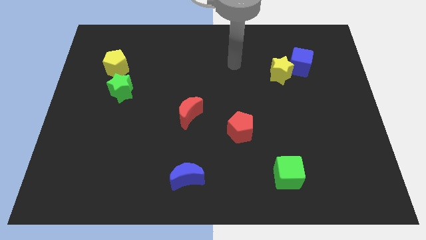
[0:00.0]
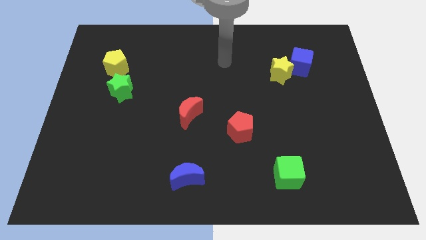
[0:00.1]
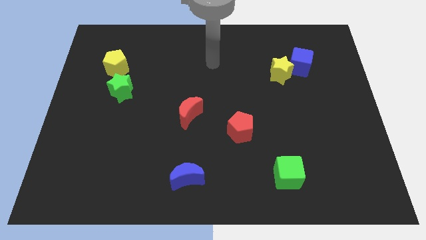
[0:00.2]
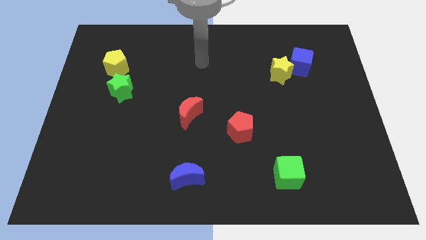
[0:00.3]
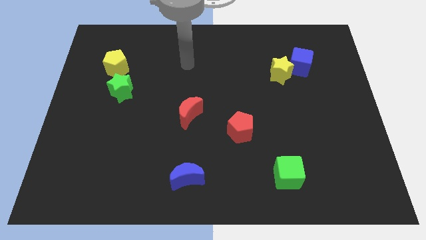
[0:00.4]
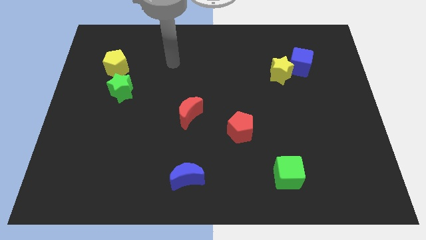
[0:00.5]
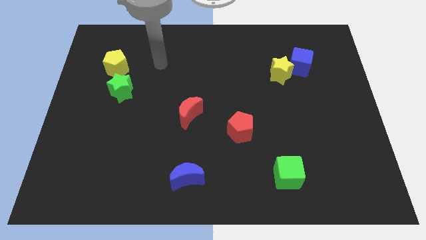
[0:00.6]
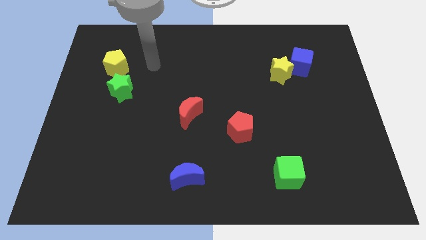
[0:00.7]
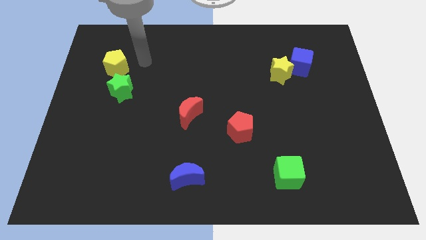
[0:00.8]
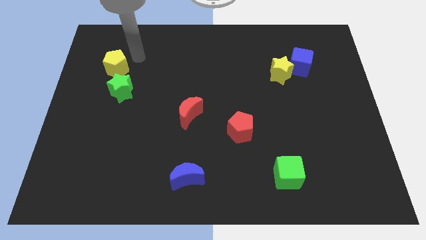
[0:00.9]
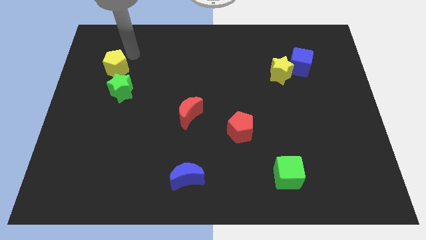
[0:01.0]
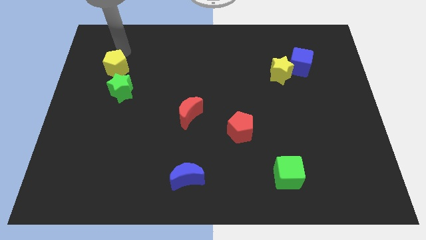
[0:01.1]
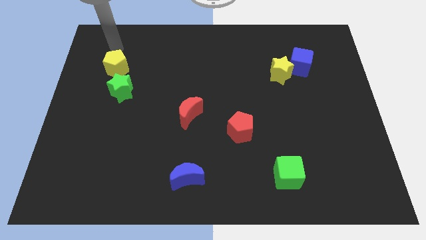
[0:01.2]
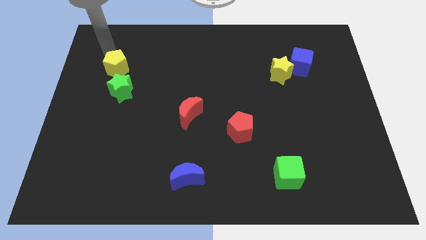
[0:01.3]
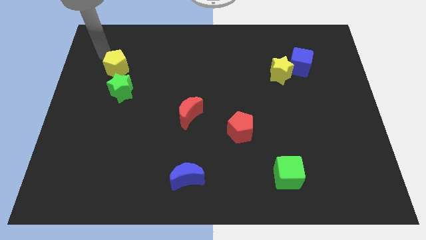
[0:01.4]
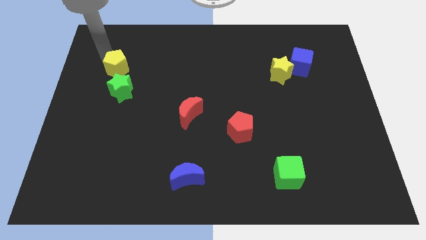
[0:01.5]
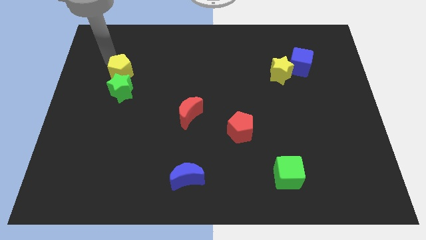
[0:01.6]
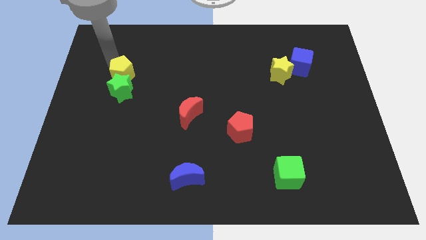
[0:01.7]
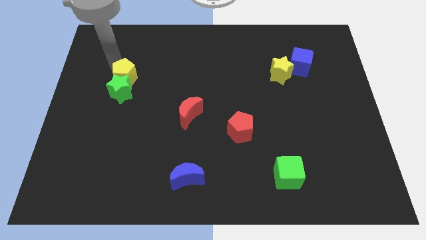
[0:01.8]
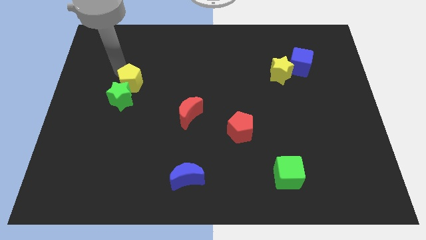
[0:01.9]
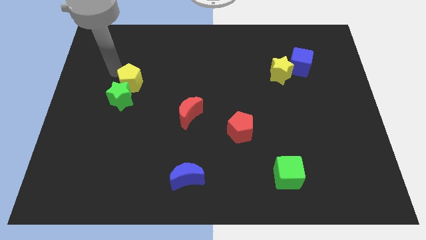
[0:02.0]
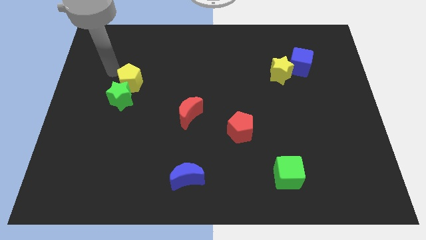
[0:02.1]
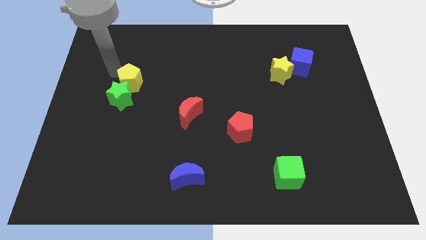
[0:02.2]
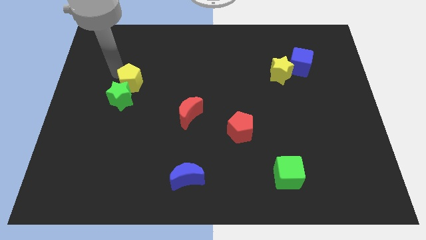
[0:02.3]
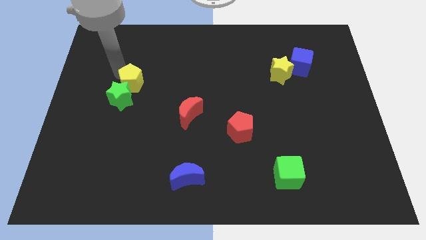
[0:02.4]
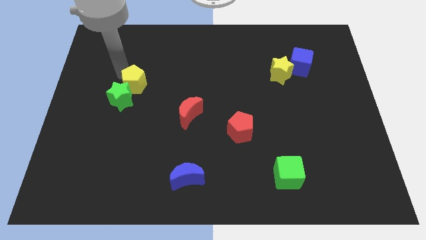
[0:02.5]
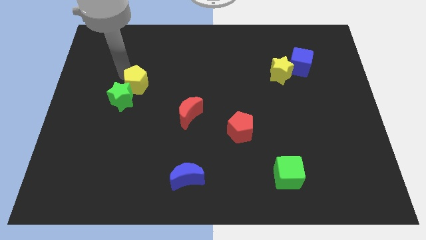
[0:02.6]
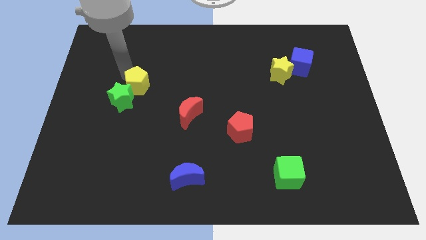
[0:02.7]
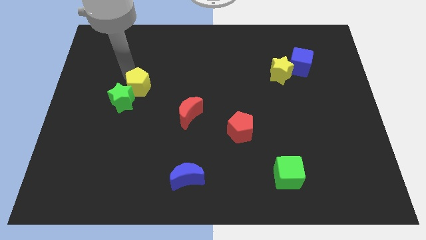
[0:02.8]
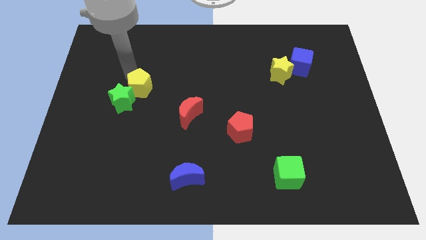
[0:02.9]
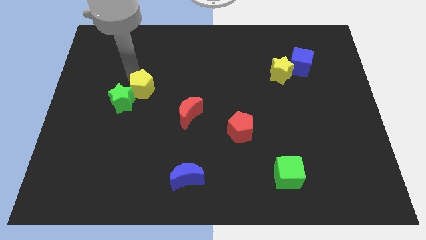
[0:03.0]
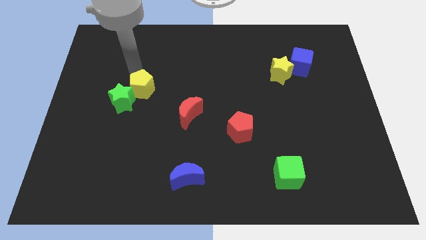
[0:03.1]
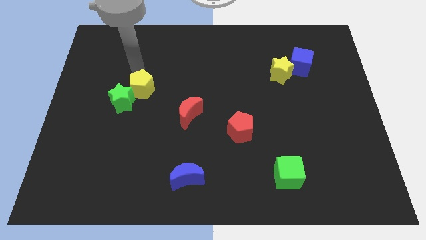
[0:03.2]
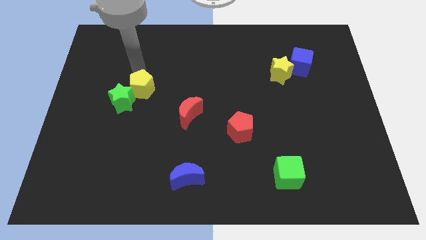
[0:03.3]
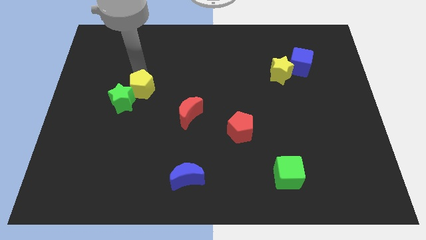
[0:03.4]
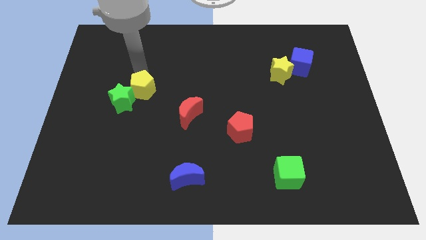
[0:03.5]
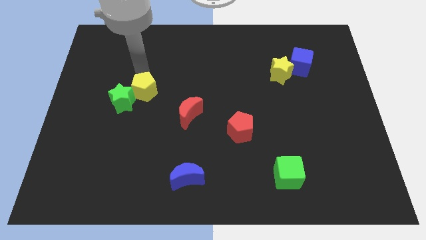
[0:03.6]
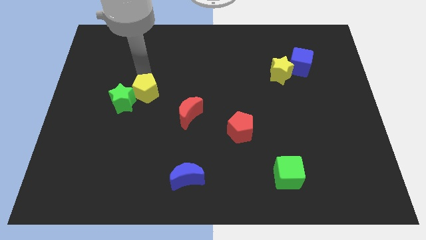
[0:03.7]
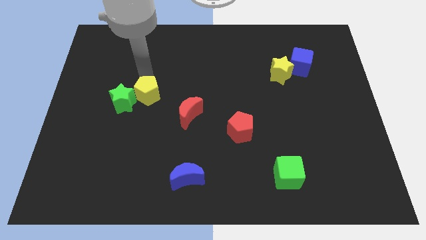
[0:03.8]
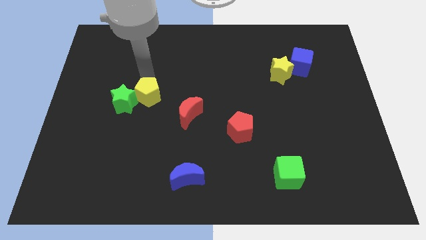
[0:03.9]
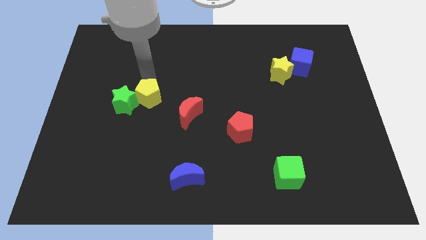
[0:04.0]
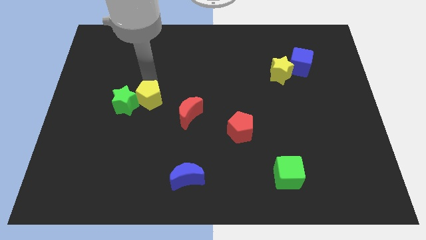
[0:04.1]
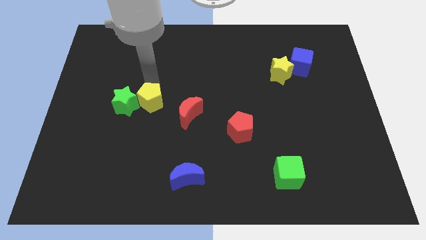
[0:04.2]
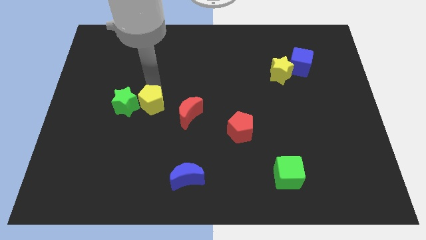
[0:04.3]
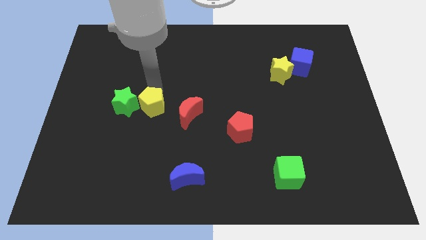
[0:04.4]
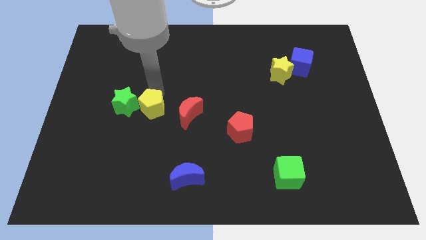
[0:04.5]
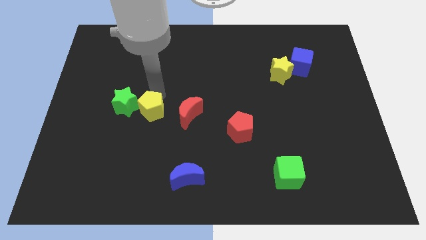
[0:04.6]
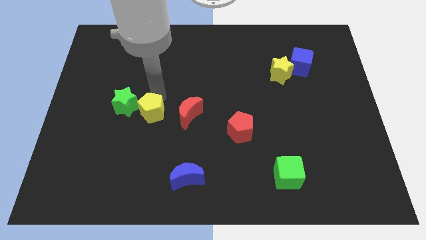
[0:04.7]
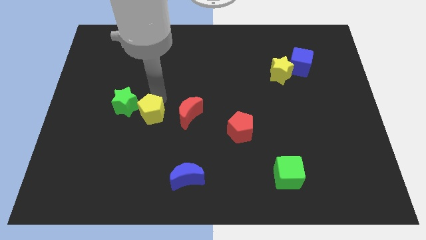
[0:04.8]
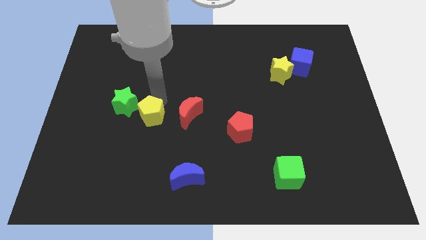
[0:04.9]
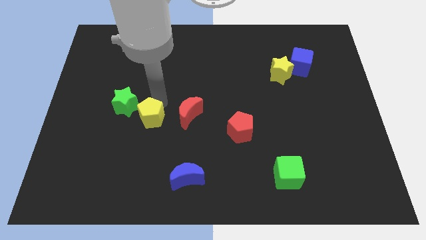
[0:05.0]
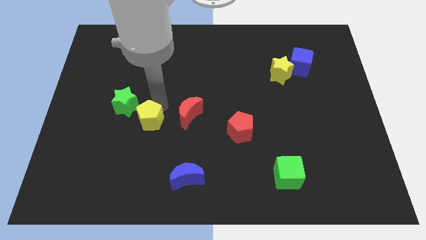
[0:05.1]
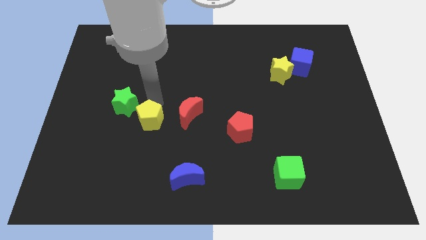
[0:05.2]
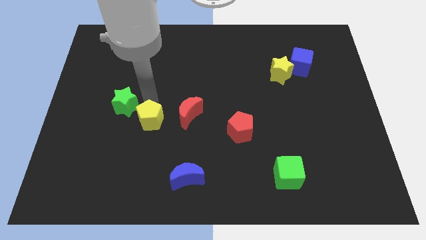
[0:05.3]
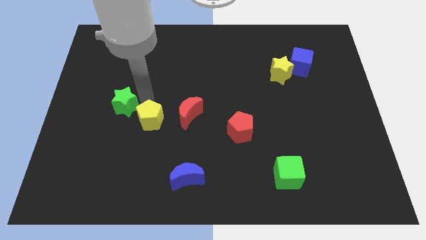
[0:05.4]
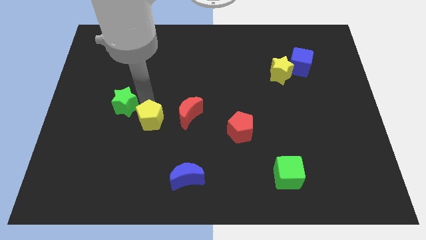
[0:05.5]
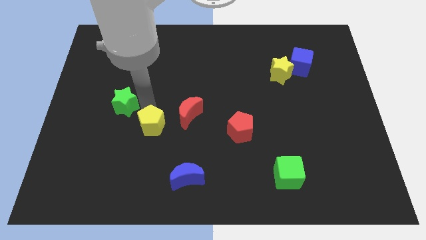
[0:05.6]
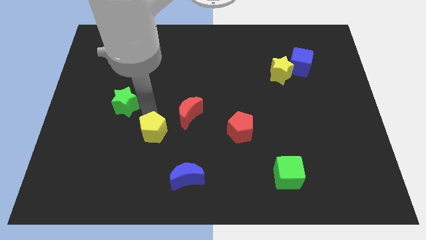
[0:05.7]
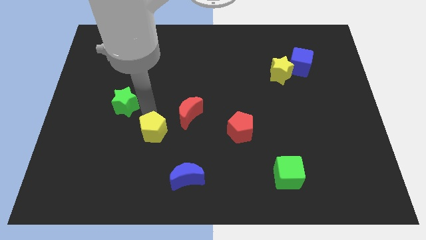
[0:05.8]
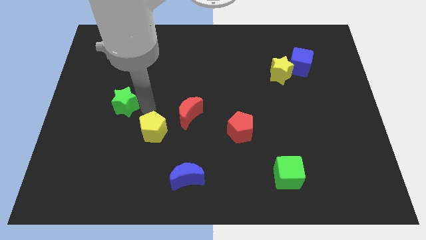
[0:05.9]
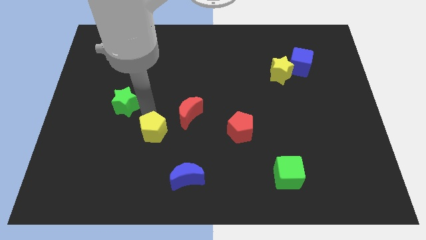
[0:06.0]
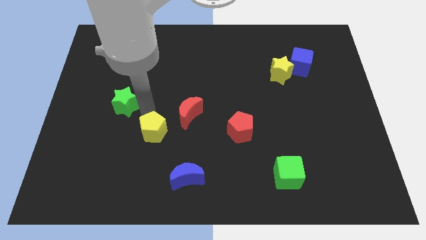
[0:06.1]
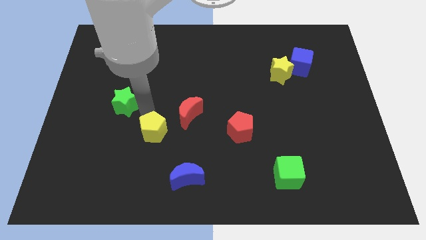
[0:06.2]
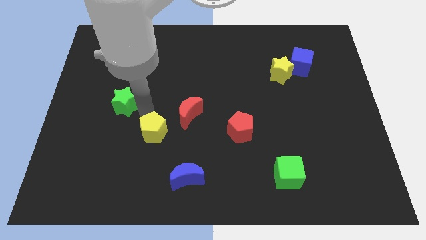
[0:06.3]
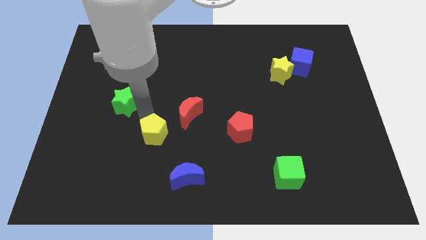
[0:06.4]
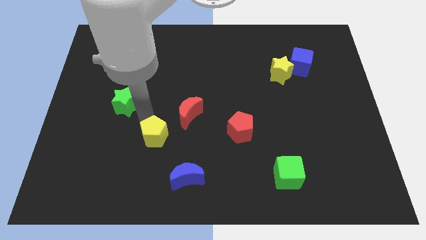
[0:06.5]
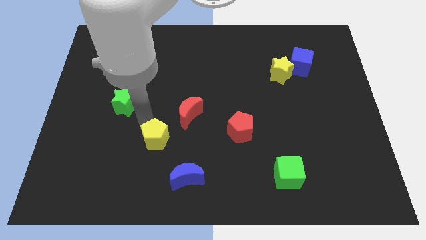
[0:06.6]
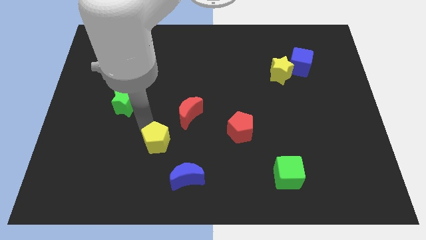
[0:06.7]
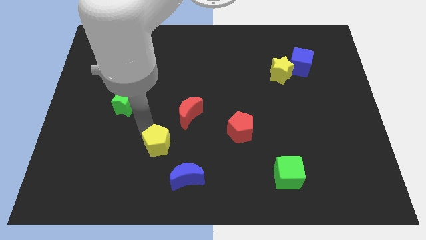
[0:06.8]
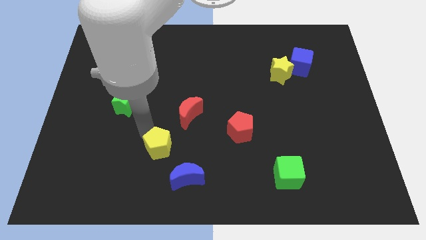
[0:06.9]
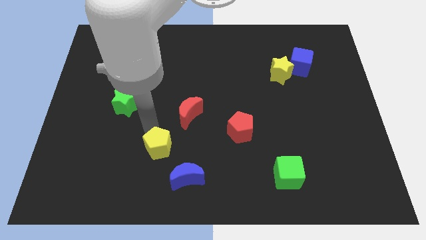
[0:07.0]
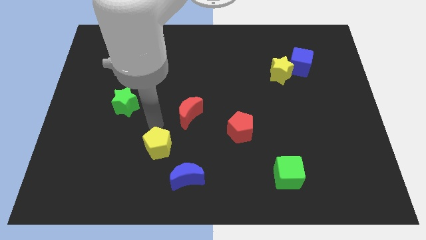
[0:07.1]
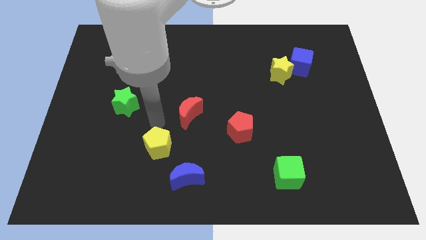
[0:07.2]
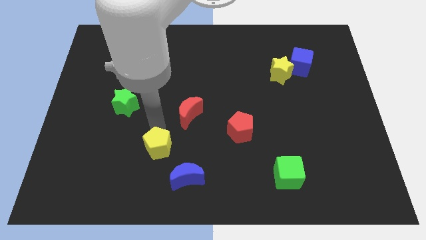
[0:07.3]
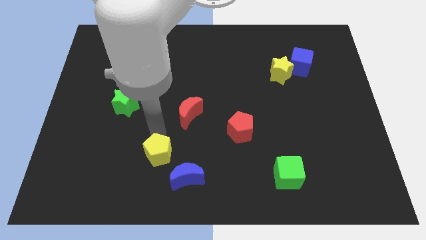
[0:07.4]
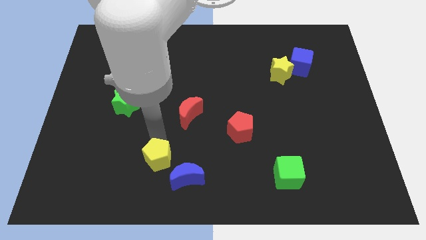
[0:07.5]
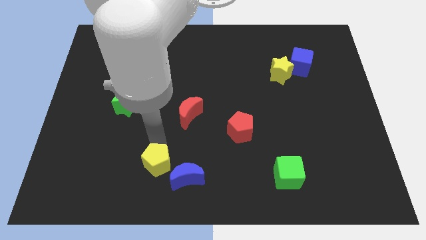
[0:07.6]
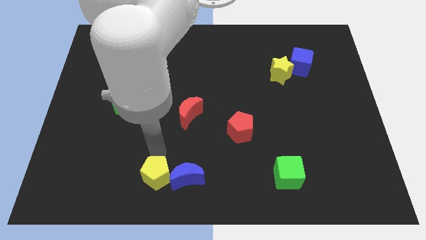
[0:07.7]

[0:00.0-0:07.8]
put the yellow pentagon to the bottom
